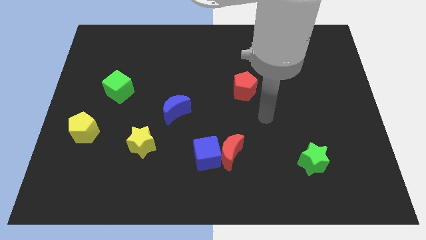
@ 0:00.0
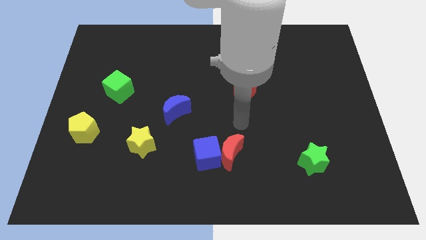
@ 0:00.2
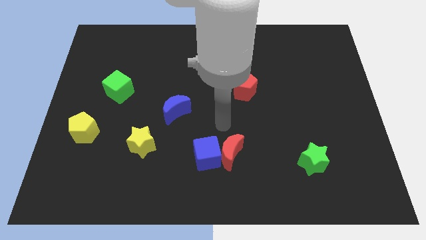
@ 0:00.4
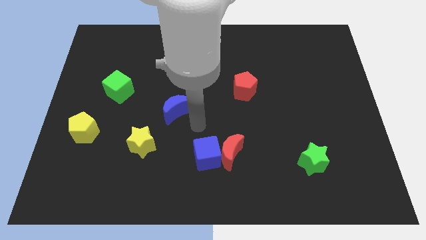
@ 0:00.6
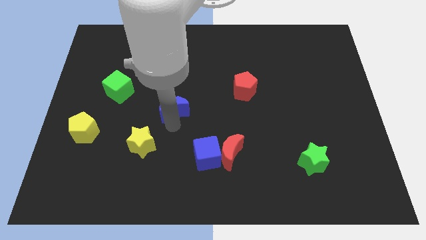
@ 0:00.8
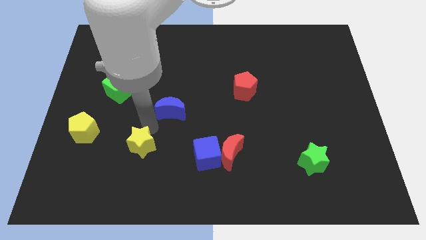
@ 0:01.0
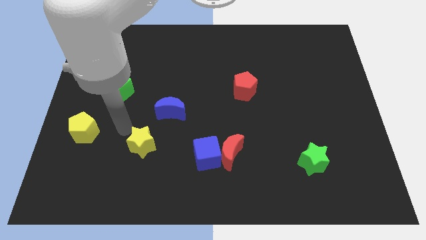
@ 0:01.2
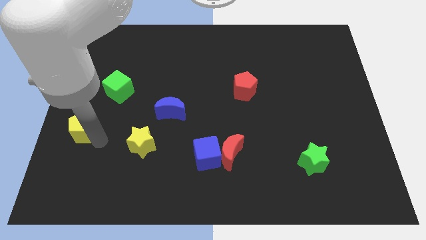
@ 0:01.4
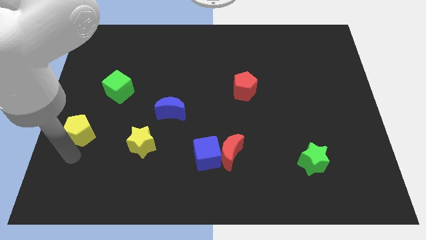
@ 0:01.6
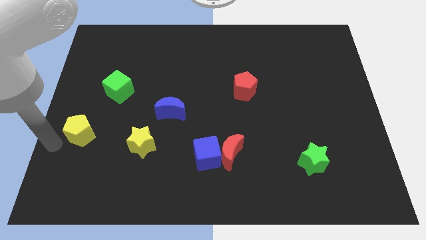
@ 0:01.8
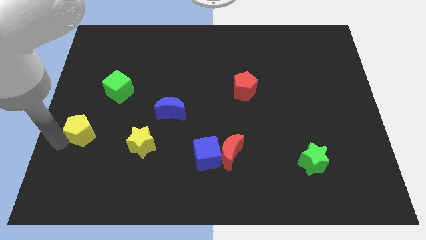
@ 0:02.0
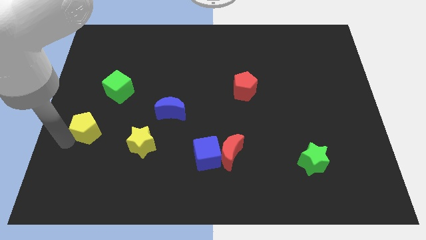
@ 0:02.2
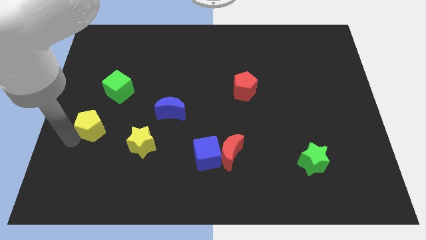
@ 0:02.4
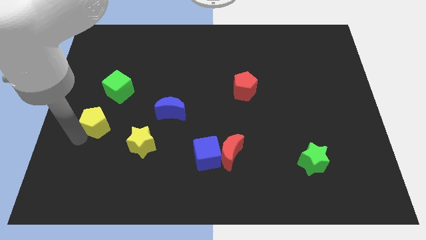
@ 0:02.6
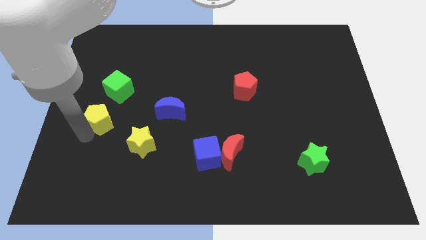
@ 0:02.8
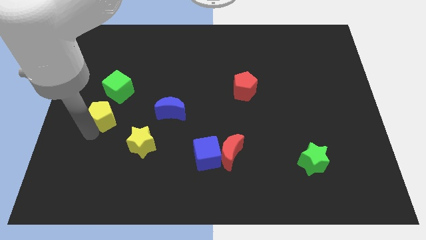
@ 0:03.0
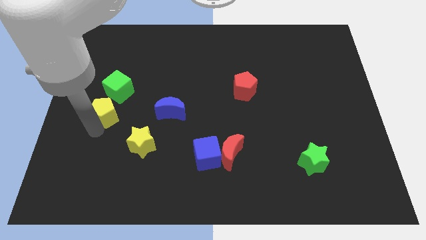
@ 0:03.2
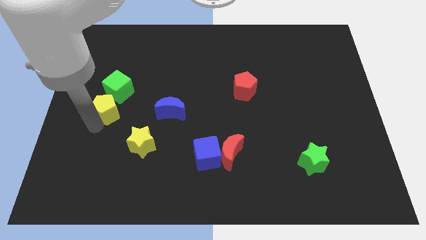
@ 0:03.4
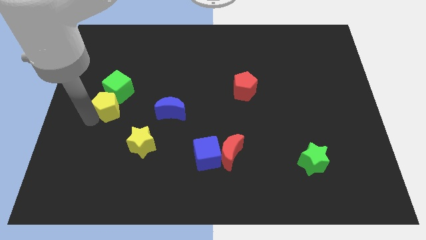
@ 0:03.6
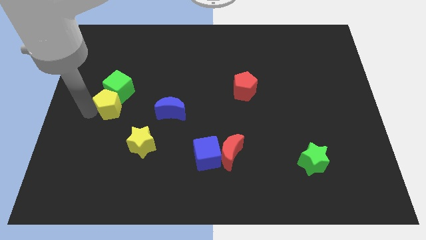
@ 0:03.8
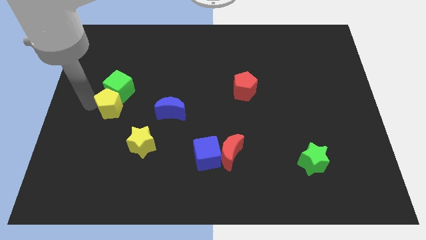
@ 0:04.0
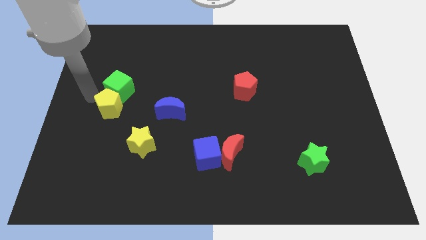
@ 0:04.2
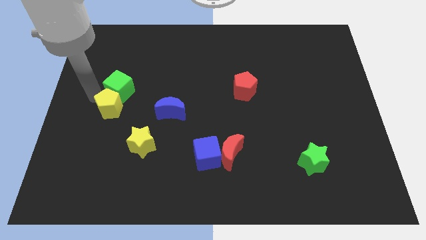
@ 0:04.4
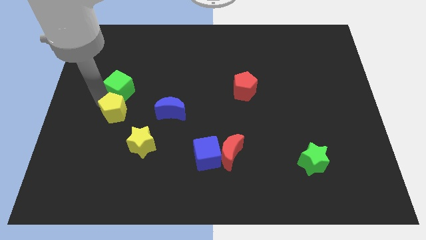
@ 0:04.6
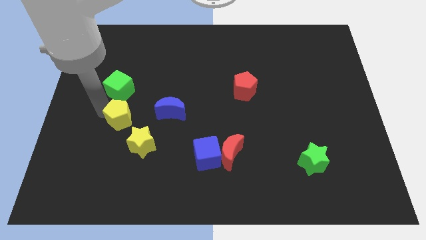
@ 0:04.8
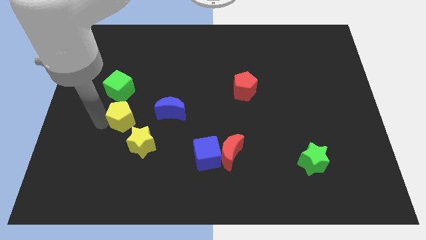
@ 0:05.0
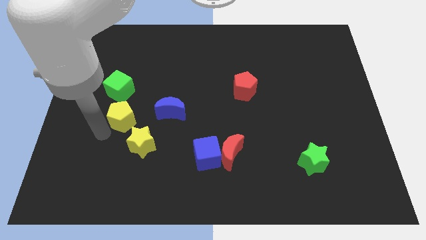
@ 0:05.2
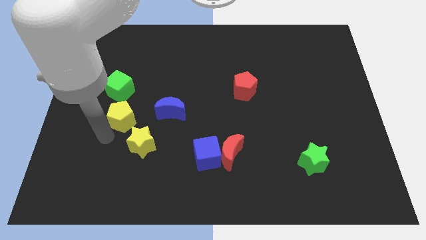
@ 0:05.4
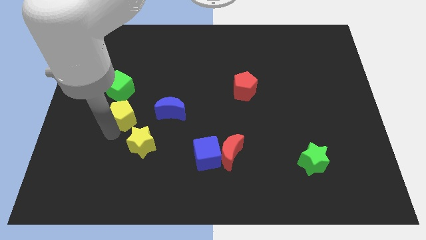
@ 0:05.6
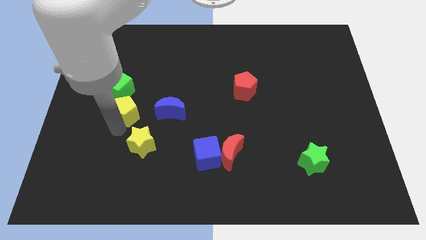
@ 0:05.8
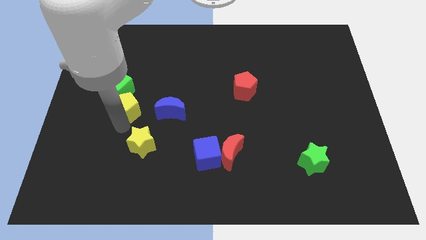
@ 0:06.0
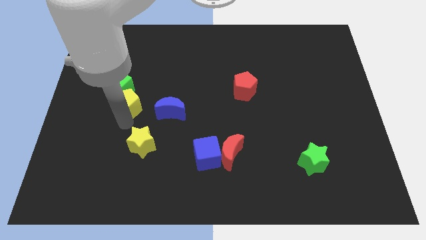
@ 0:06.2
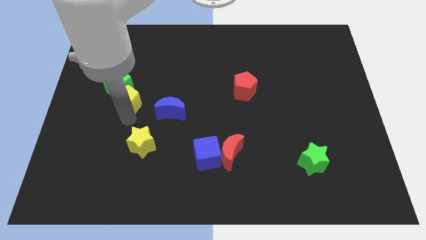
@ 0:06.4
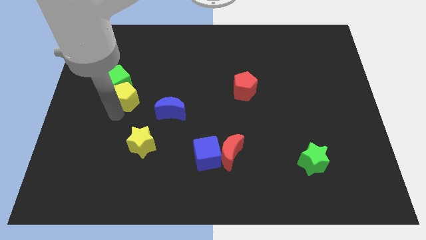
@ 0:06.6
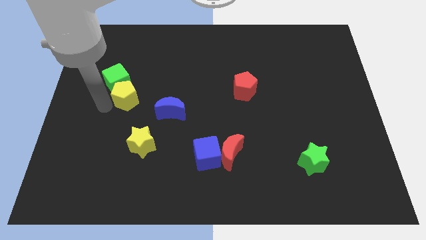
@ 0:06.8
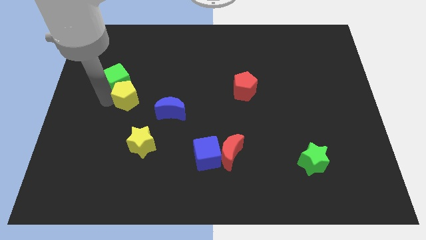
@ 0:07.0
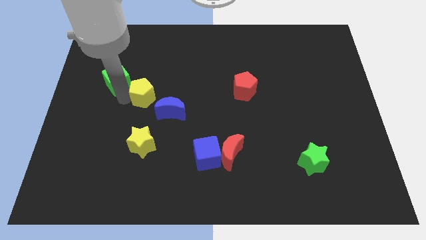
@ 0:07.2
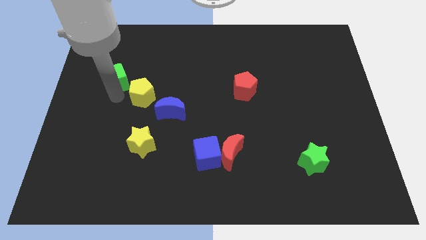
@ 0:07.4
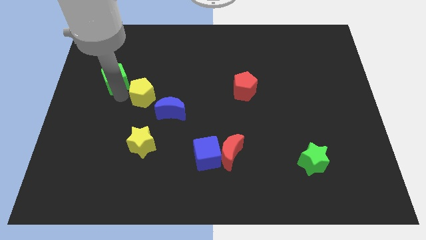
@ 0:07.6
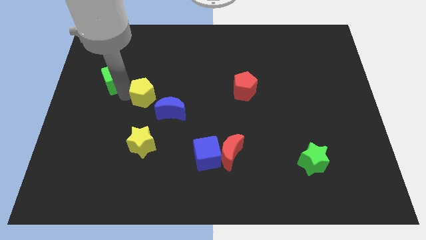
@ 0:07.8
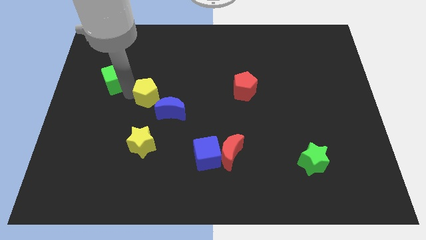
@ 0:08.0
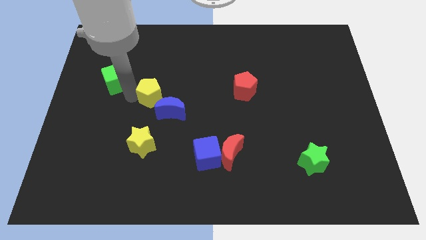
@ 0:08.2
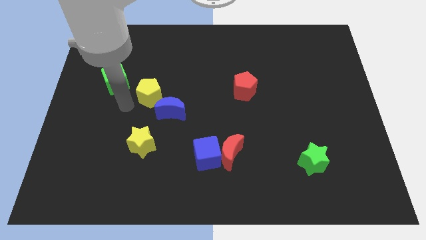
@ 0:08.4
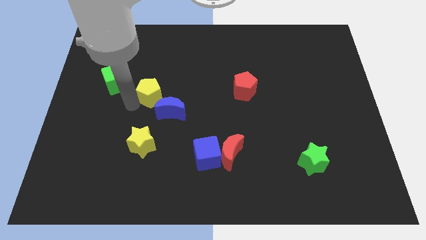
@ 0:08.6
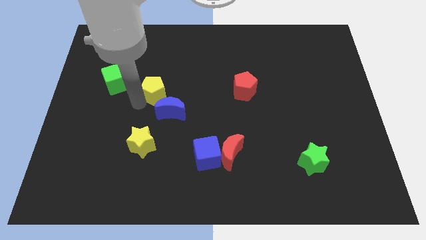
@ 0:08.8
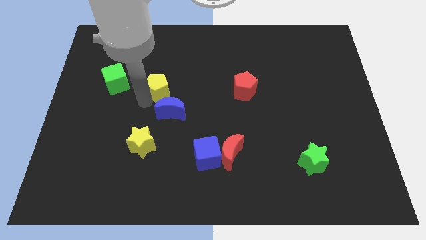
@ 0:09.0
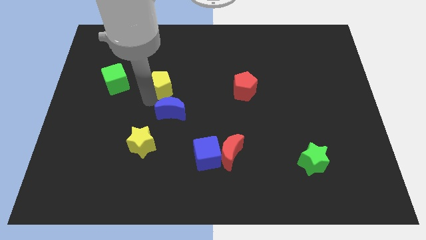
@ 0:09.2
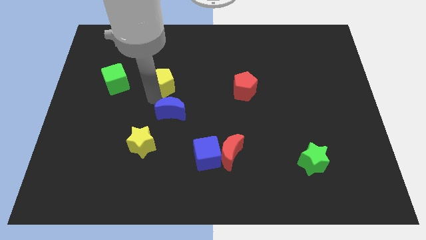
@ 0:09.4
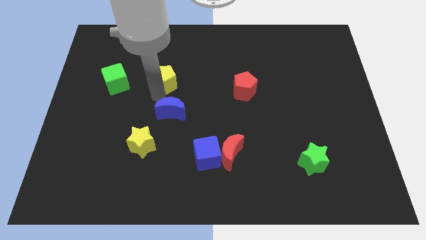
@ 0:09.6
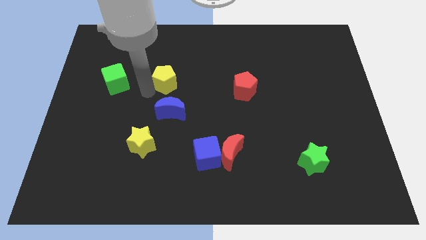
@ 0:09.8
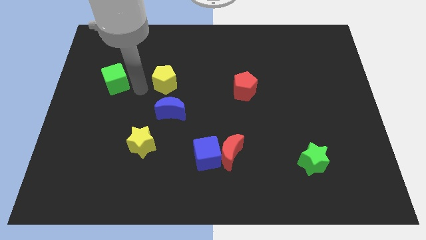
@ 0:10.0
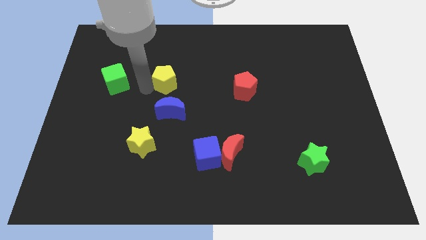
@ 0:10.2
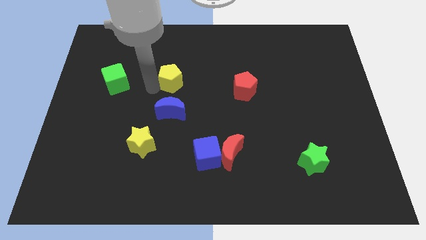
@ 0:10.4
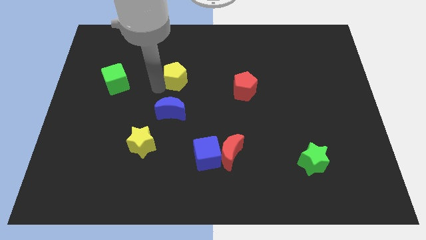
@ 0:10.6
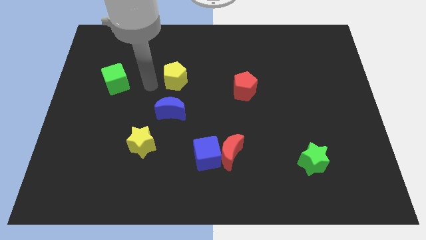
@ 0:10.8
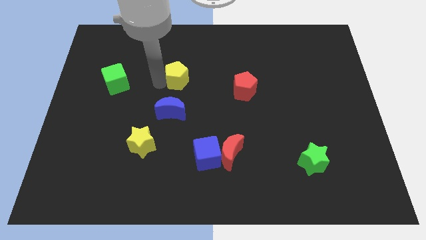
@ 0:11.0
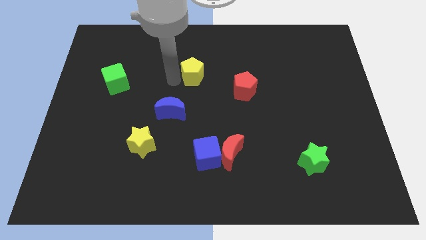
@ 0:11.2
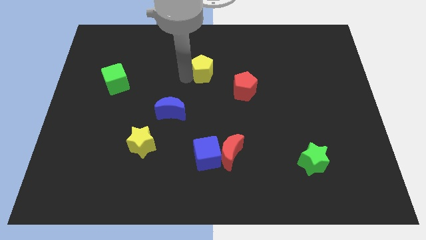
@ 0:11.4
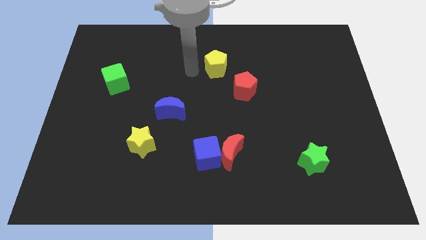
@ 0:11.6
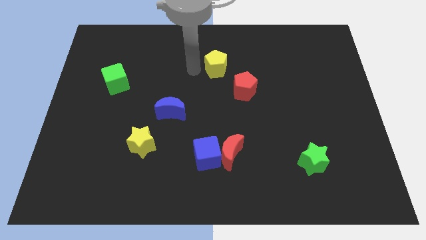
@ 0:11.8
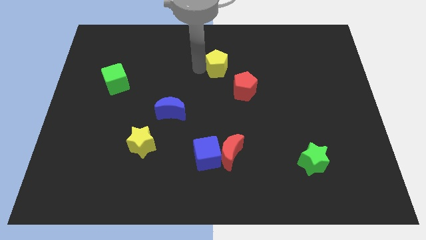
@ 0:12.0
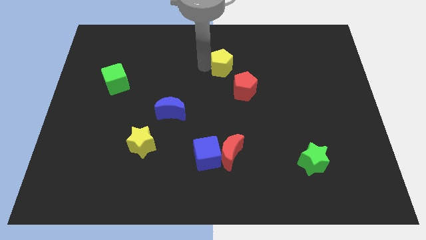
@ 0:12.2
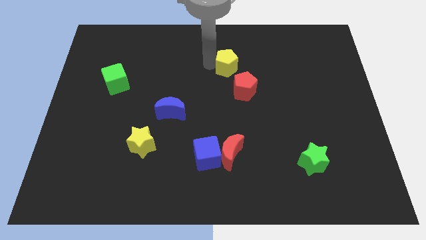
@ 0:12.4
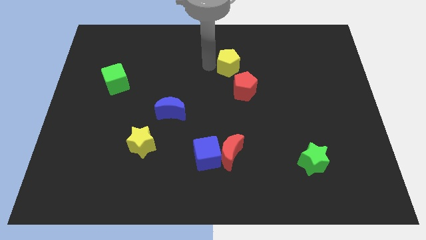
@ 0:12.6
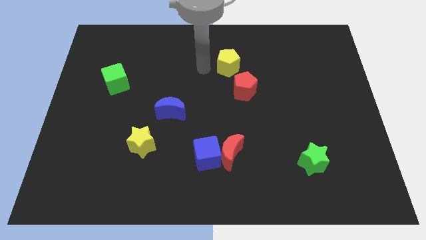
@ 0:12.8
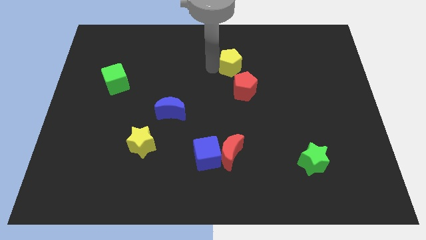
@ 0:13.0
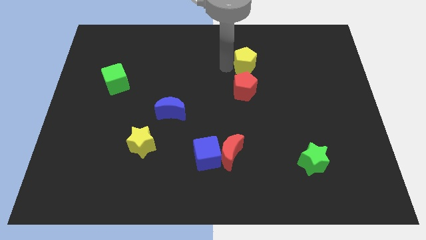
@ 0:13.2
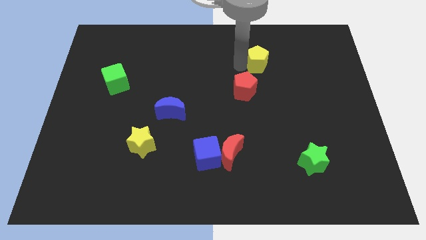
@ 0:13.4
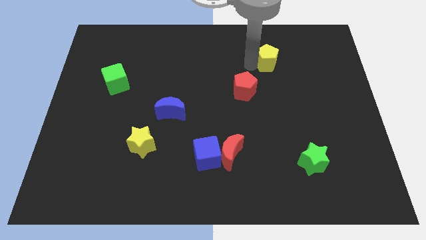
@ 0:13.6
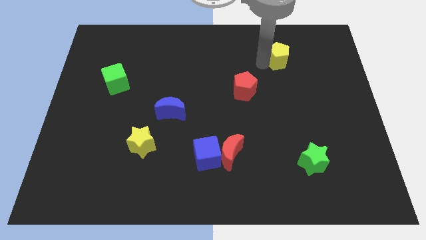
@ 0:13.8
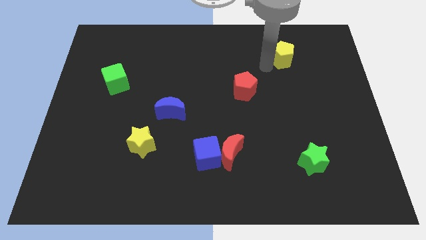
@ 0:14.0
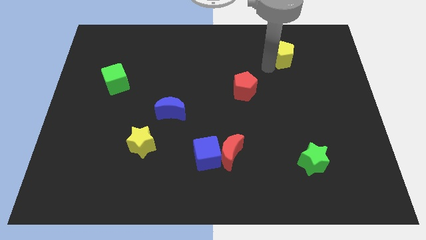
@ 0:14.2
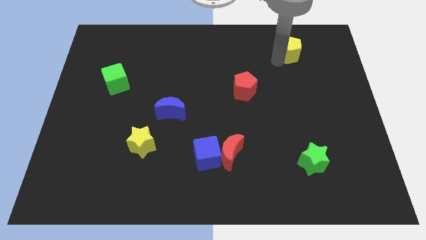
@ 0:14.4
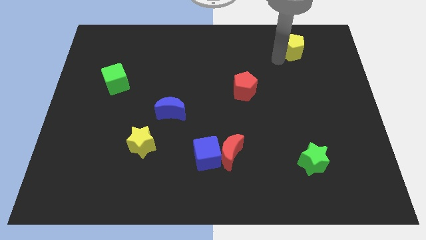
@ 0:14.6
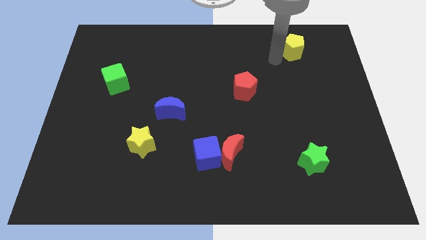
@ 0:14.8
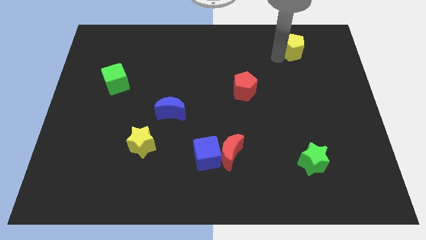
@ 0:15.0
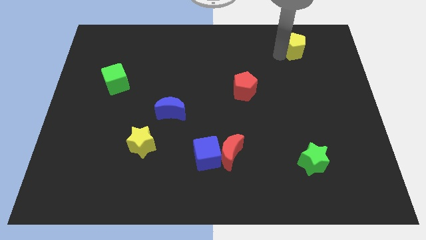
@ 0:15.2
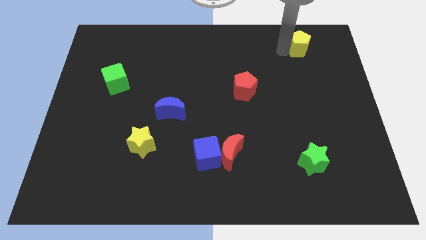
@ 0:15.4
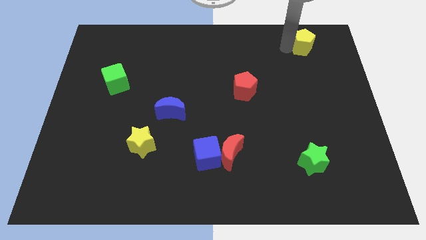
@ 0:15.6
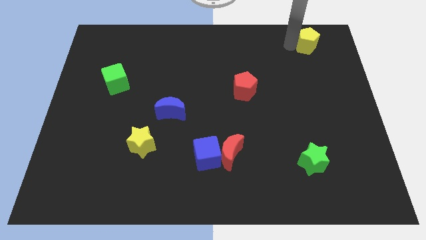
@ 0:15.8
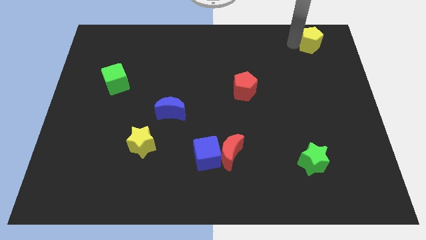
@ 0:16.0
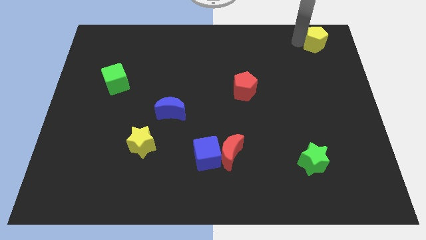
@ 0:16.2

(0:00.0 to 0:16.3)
push the yellow pentagon to the top right corner
